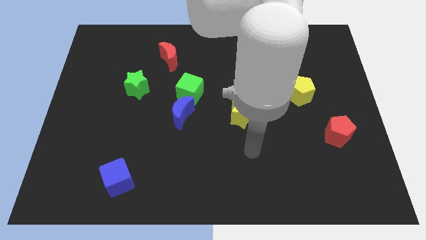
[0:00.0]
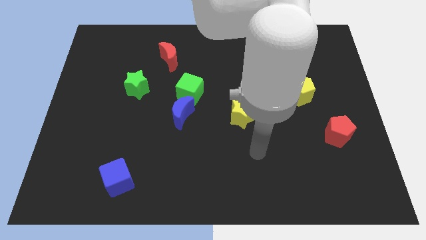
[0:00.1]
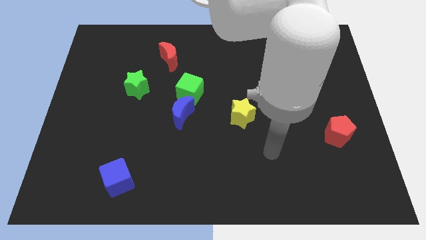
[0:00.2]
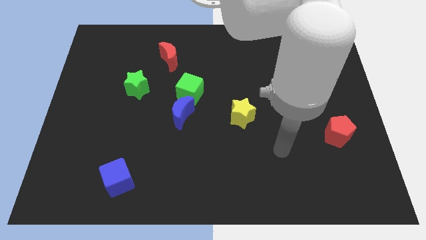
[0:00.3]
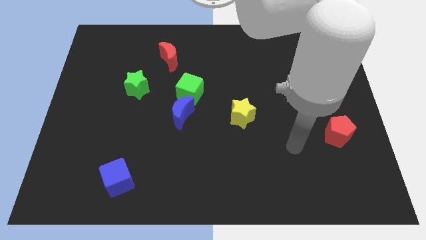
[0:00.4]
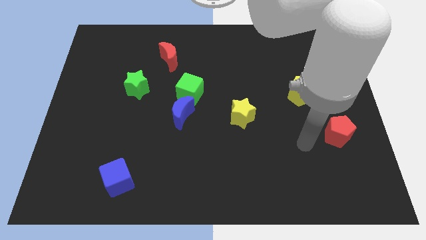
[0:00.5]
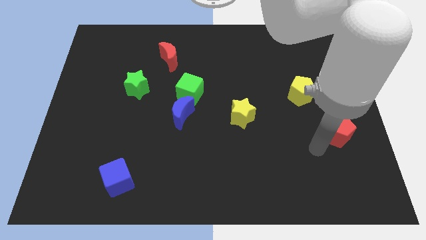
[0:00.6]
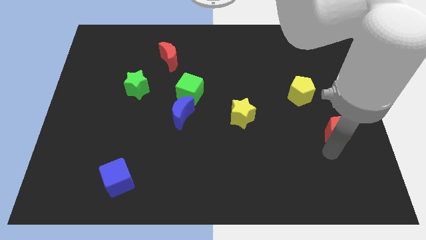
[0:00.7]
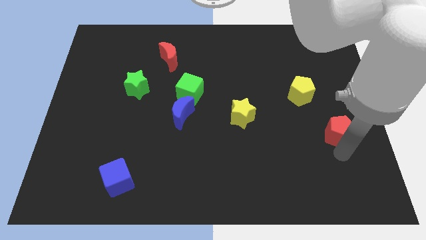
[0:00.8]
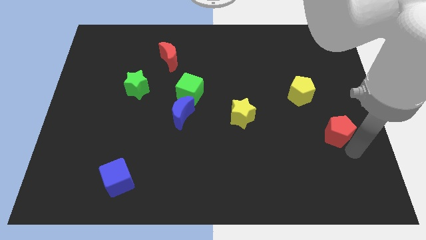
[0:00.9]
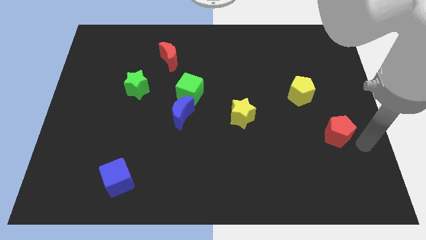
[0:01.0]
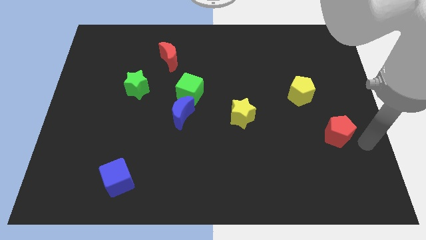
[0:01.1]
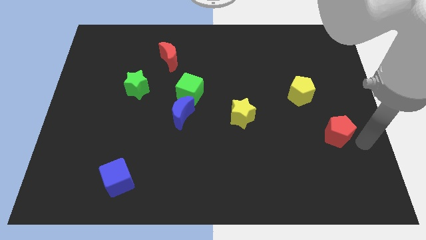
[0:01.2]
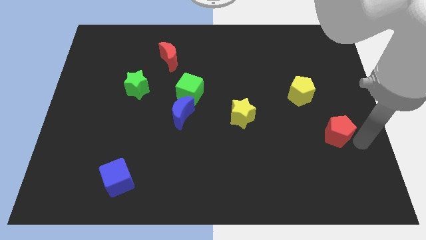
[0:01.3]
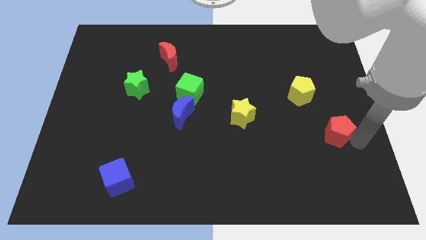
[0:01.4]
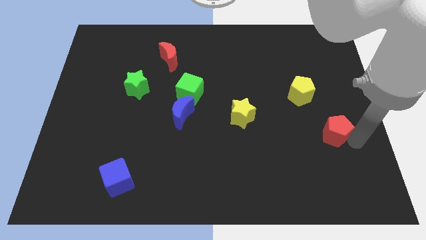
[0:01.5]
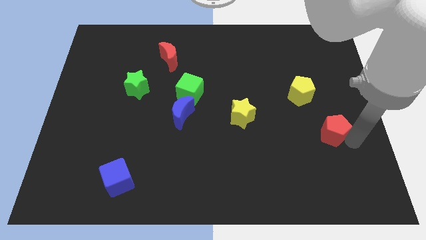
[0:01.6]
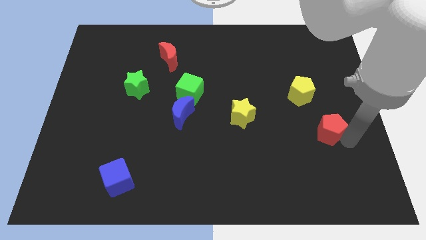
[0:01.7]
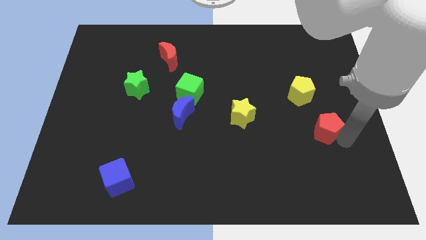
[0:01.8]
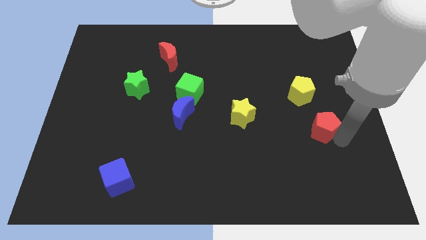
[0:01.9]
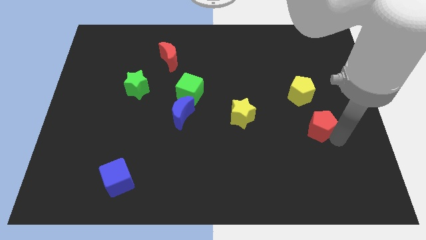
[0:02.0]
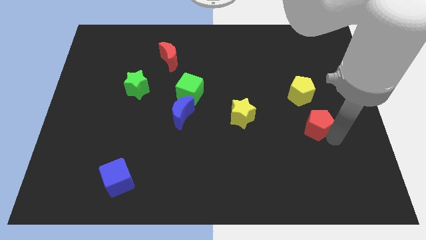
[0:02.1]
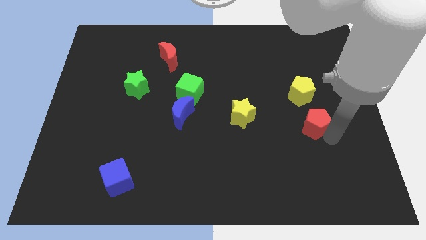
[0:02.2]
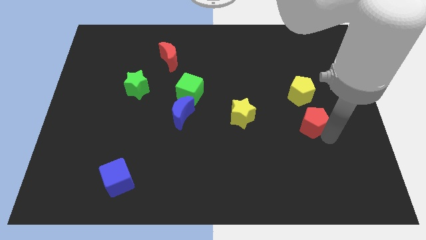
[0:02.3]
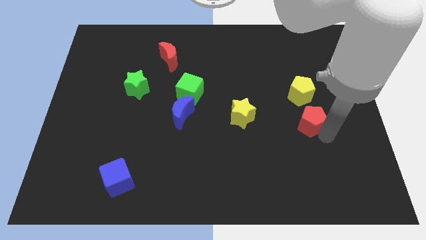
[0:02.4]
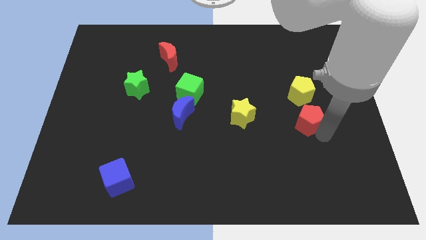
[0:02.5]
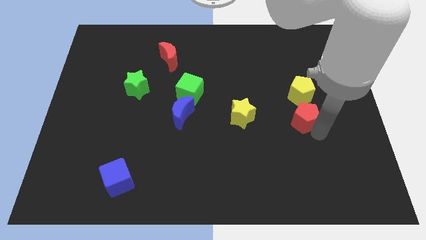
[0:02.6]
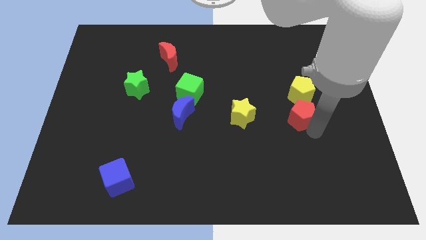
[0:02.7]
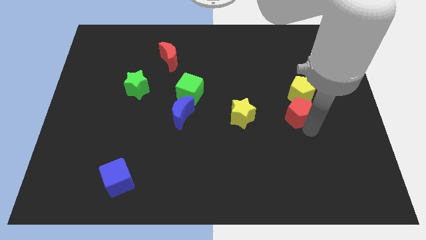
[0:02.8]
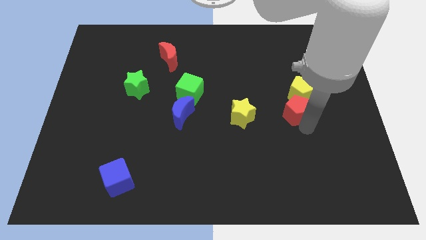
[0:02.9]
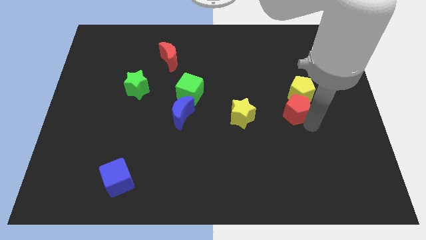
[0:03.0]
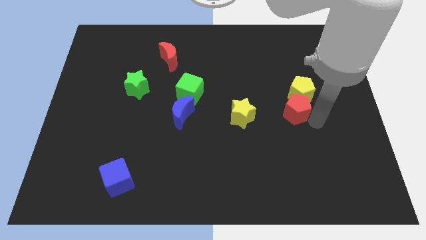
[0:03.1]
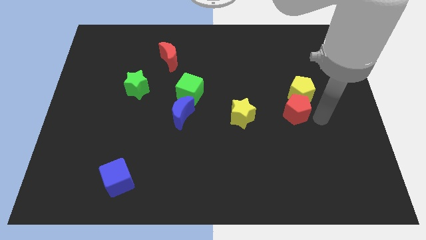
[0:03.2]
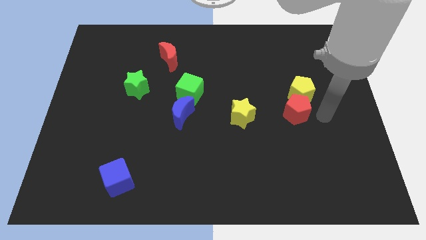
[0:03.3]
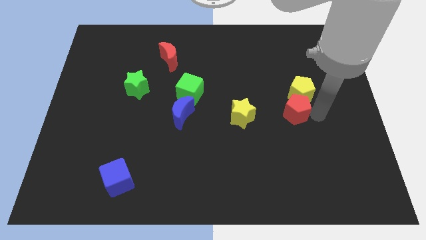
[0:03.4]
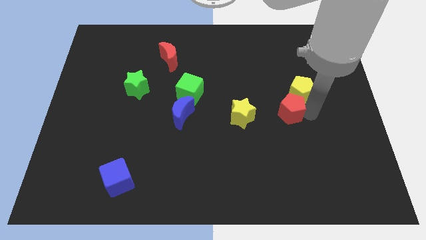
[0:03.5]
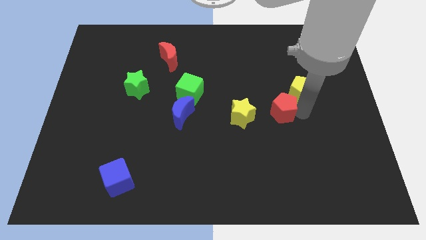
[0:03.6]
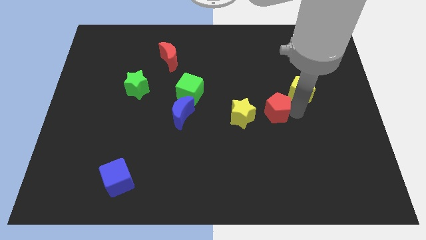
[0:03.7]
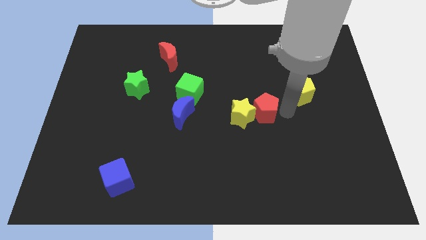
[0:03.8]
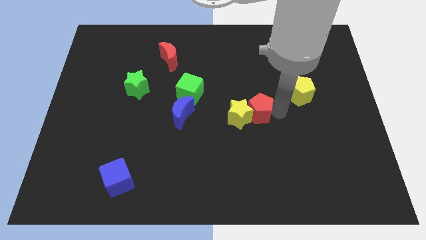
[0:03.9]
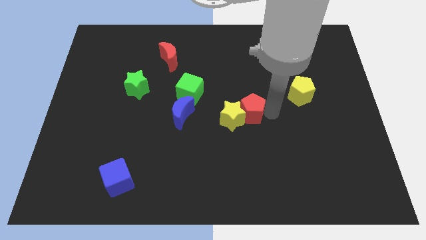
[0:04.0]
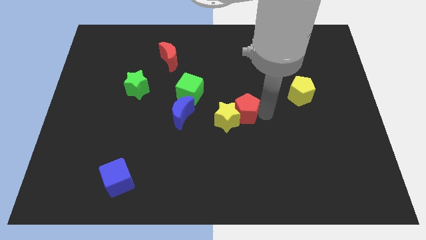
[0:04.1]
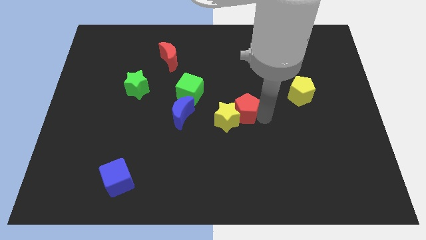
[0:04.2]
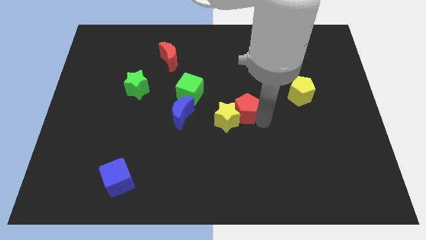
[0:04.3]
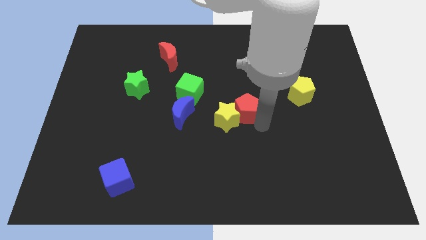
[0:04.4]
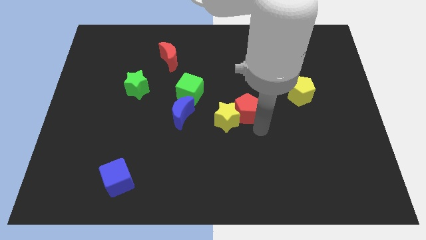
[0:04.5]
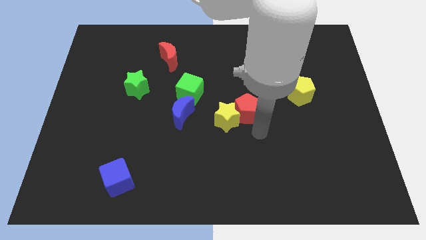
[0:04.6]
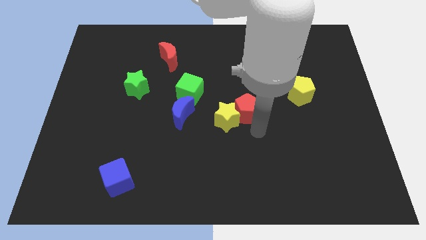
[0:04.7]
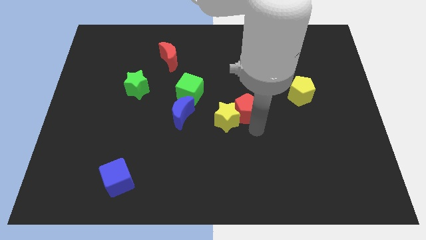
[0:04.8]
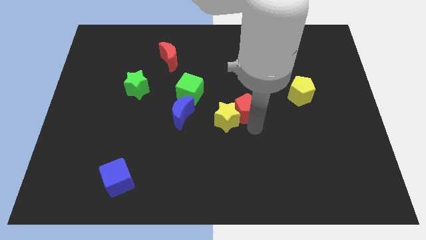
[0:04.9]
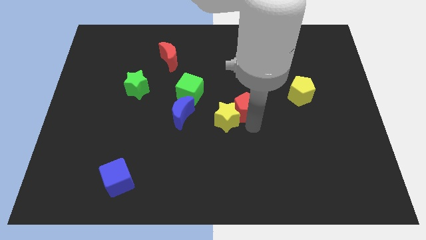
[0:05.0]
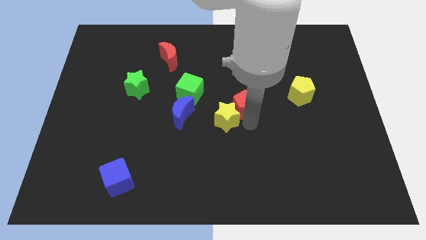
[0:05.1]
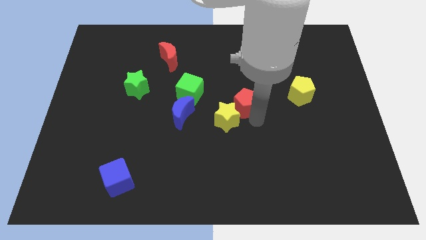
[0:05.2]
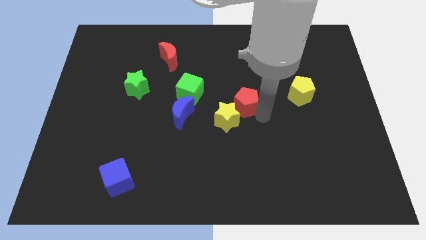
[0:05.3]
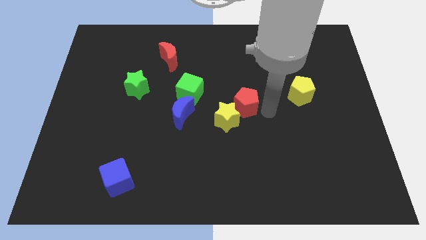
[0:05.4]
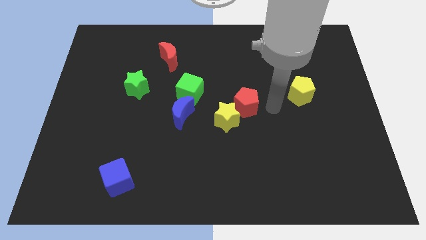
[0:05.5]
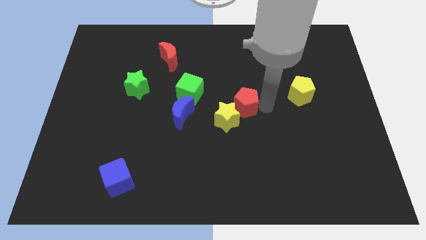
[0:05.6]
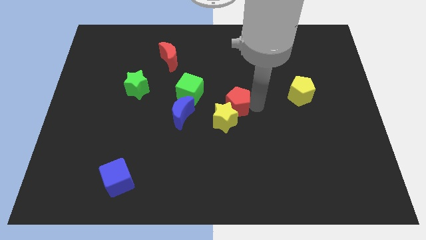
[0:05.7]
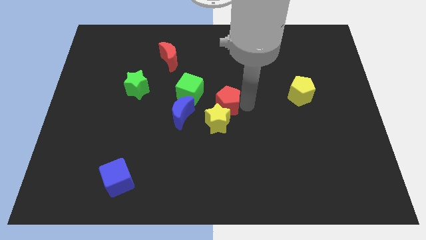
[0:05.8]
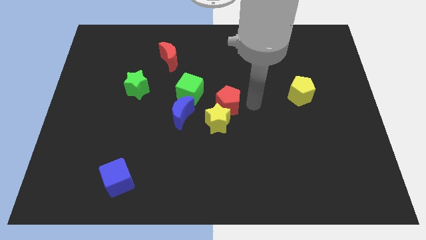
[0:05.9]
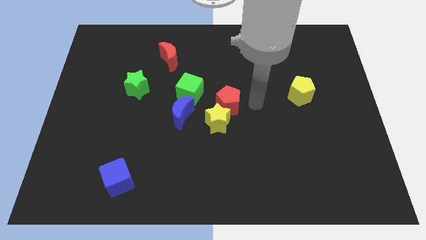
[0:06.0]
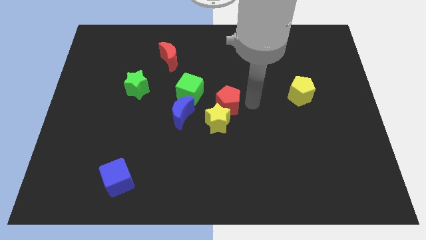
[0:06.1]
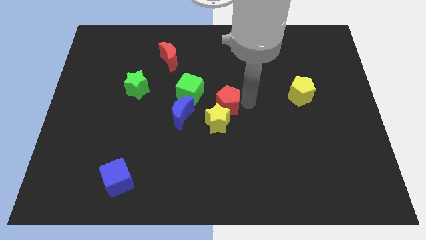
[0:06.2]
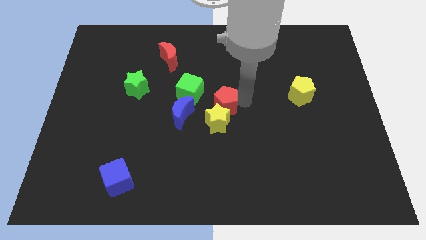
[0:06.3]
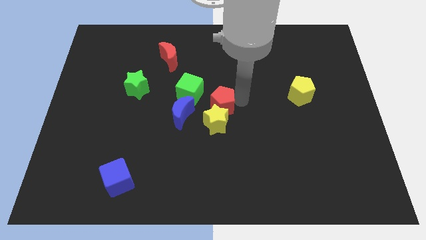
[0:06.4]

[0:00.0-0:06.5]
move the red pentagon diagonally up and to the left of the yellow star

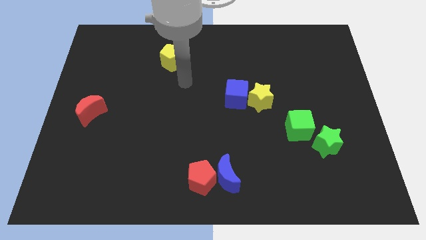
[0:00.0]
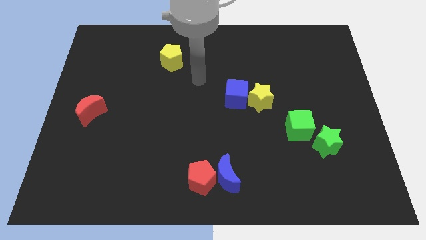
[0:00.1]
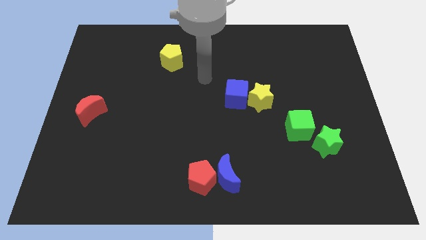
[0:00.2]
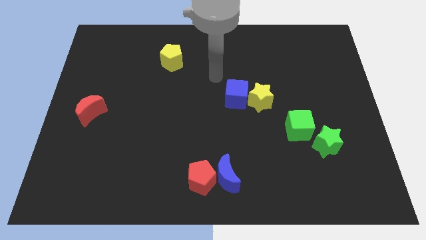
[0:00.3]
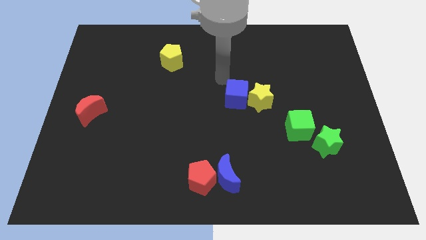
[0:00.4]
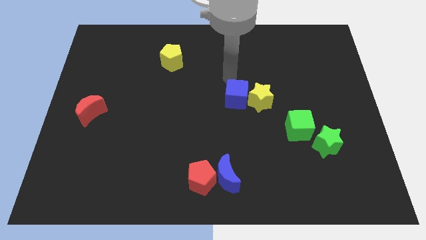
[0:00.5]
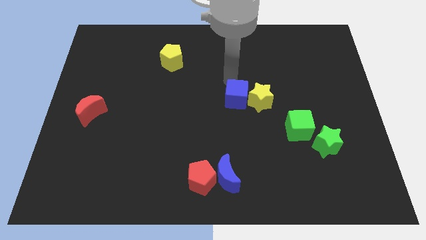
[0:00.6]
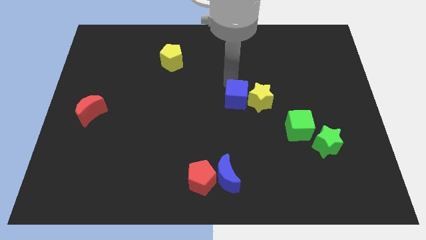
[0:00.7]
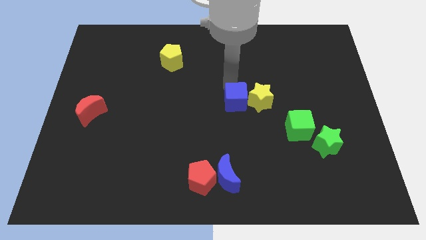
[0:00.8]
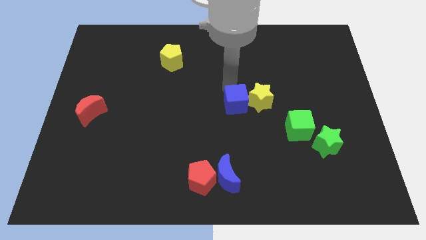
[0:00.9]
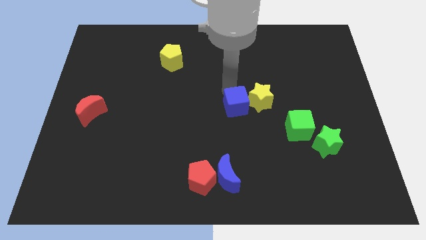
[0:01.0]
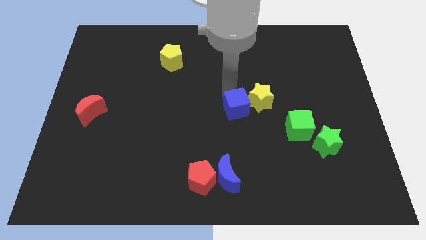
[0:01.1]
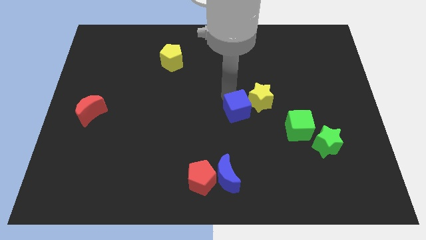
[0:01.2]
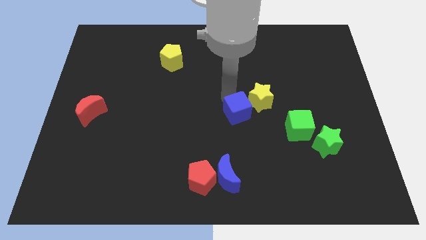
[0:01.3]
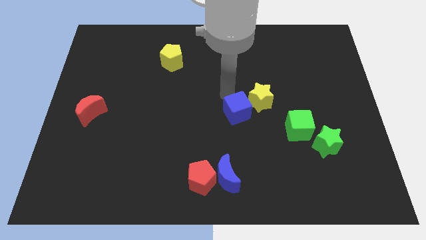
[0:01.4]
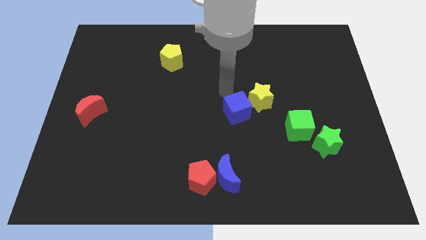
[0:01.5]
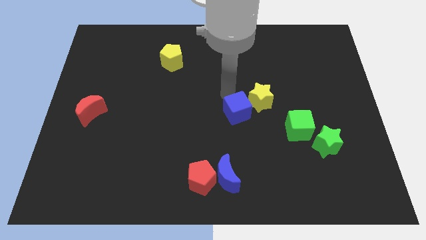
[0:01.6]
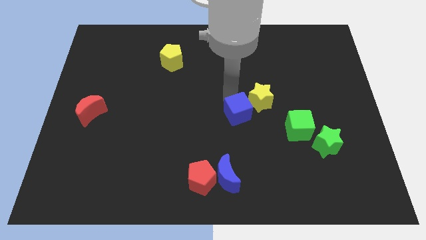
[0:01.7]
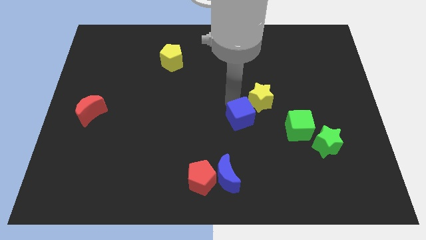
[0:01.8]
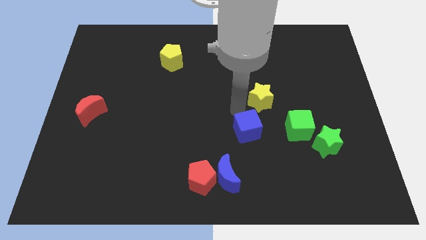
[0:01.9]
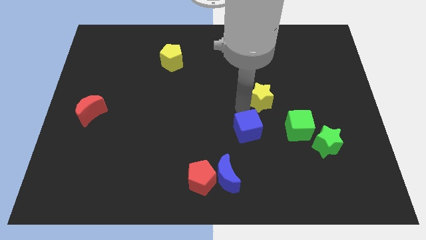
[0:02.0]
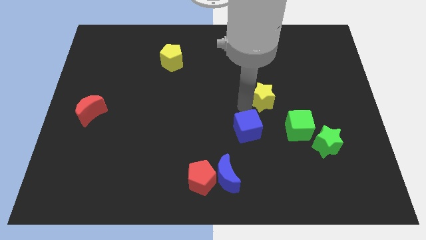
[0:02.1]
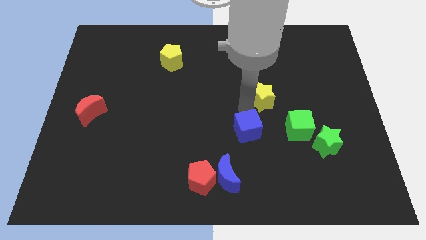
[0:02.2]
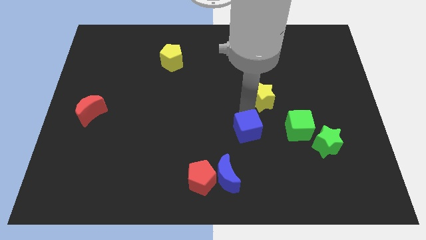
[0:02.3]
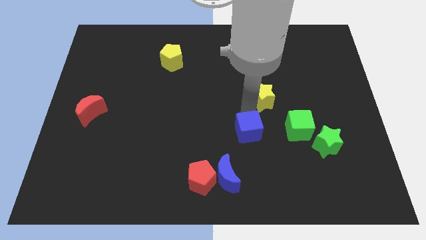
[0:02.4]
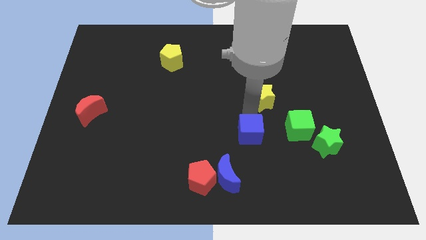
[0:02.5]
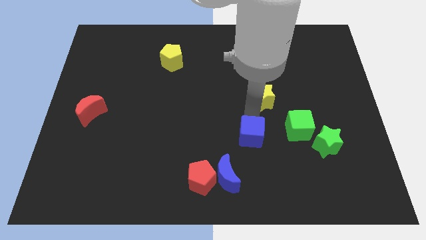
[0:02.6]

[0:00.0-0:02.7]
push the blue cube to the top right of the blue moon
